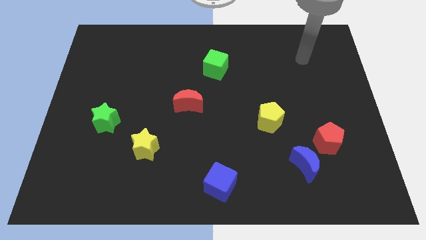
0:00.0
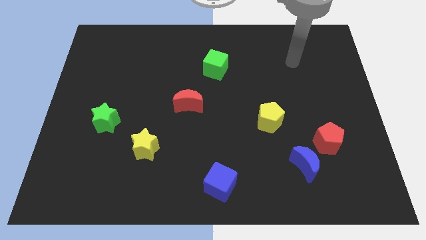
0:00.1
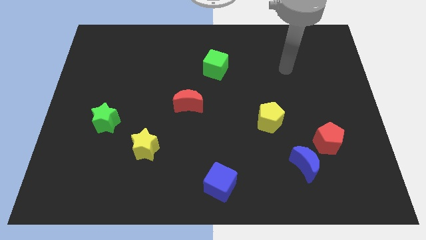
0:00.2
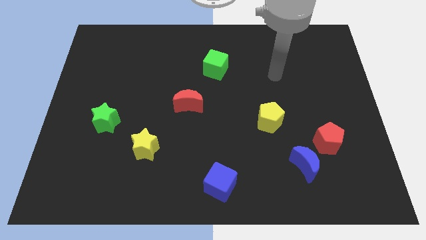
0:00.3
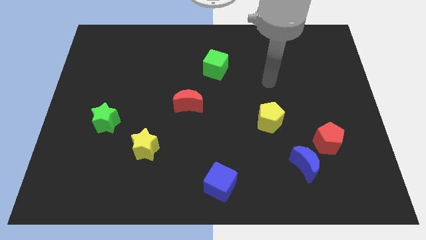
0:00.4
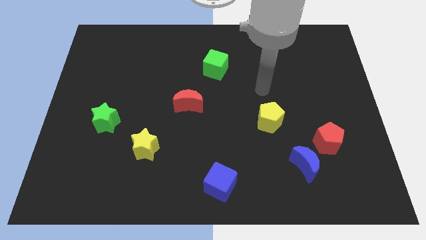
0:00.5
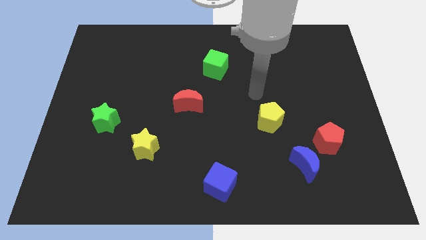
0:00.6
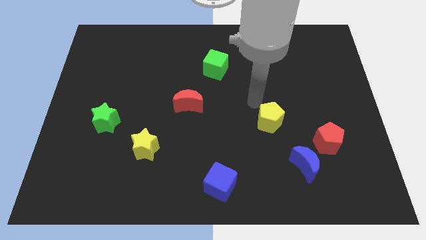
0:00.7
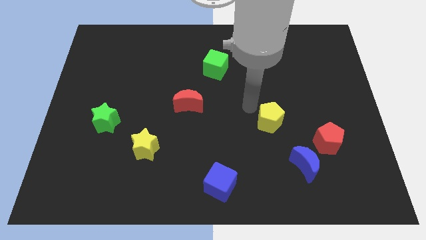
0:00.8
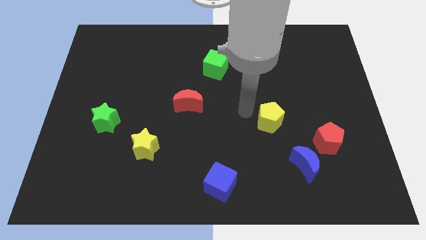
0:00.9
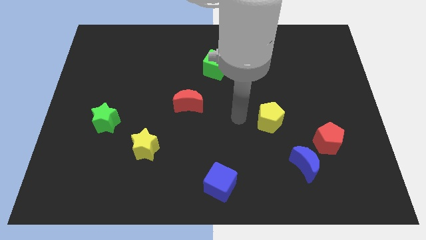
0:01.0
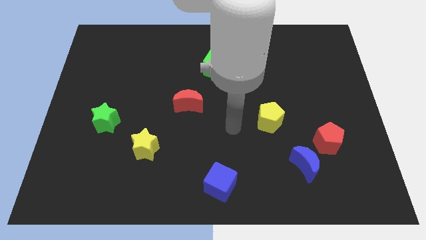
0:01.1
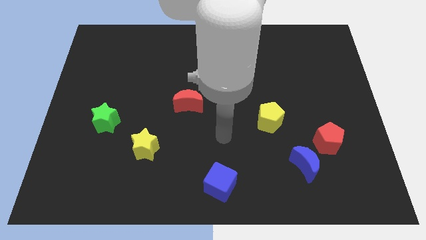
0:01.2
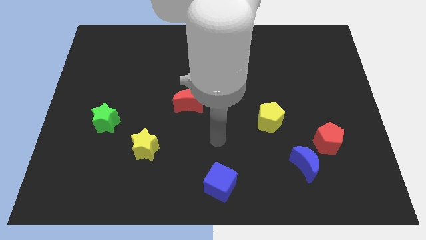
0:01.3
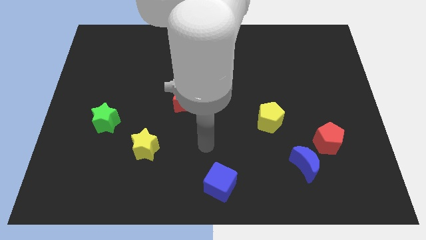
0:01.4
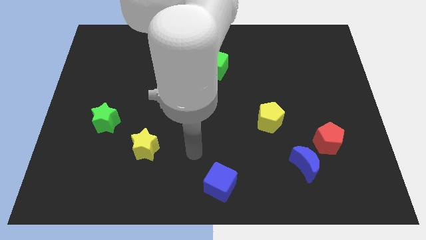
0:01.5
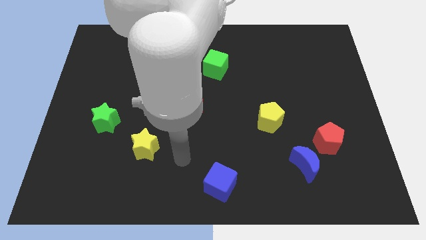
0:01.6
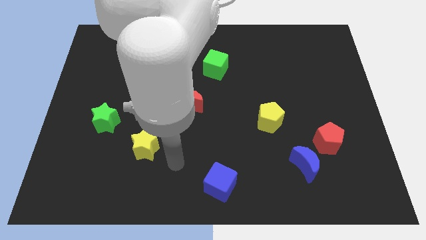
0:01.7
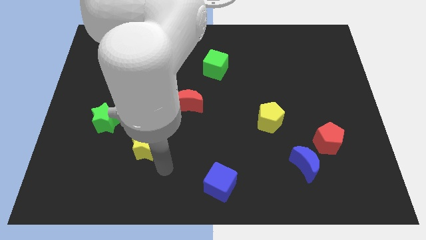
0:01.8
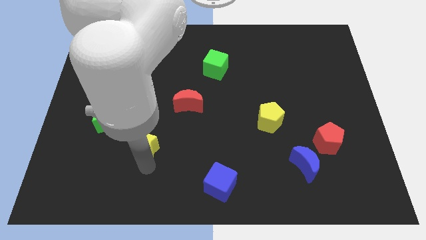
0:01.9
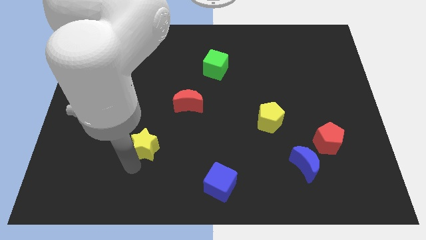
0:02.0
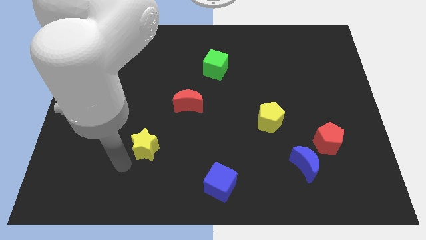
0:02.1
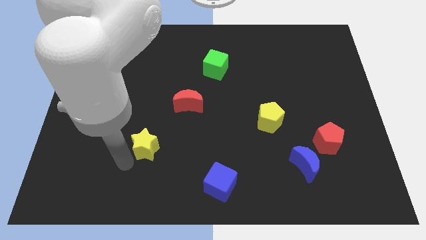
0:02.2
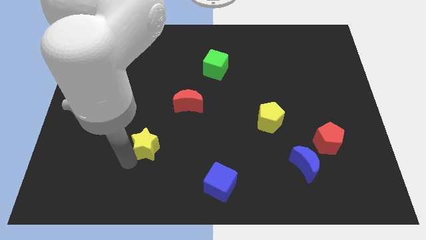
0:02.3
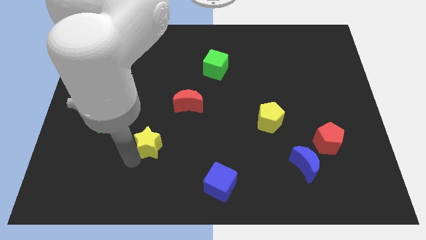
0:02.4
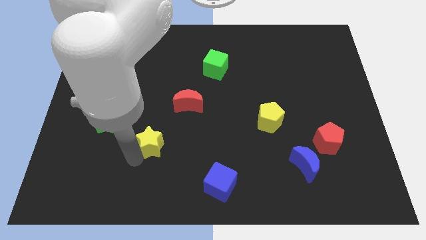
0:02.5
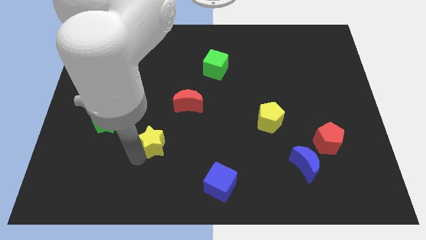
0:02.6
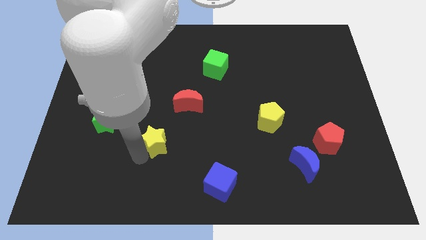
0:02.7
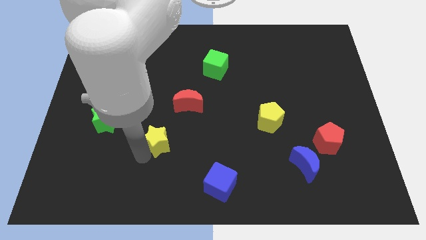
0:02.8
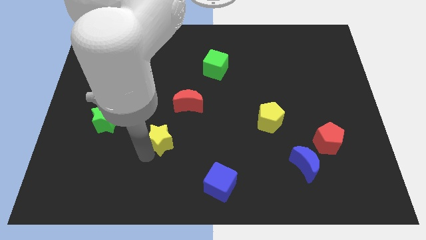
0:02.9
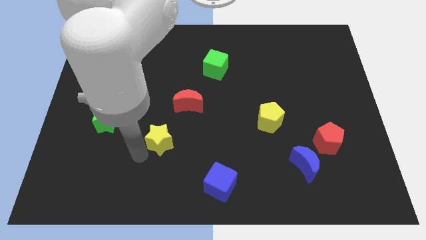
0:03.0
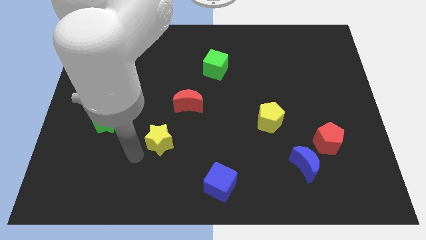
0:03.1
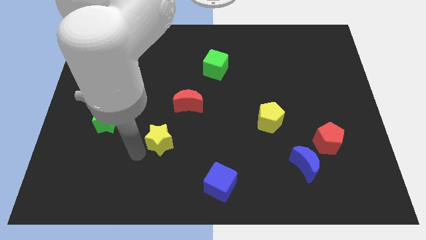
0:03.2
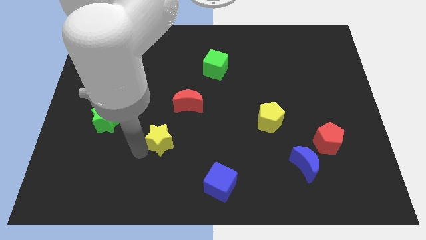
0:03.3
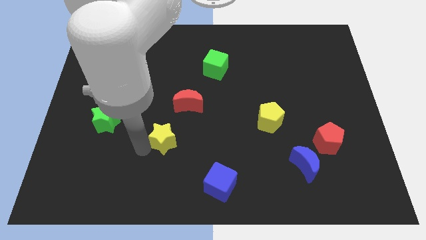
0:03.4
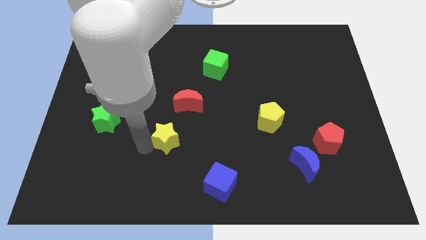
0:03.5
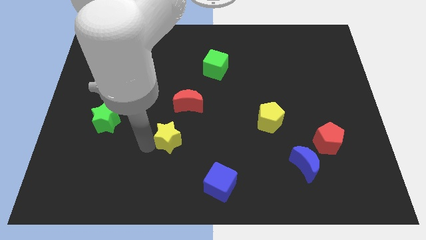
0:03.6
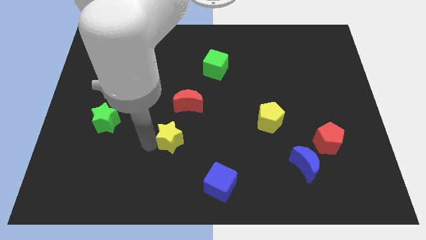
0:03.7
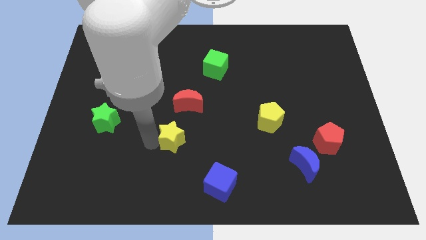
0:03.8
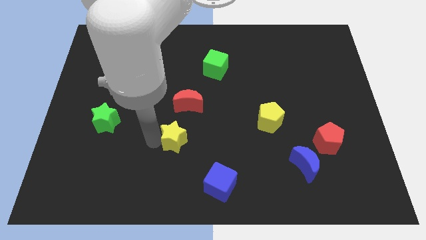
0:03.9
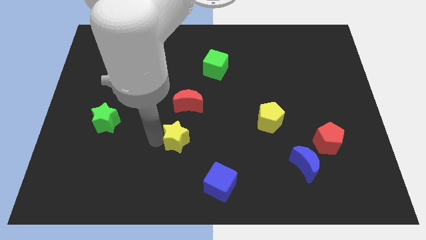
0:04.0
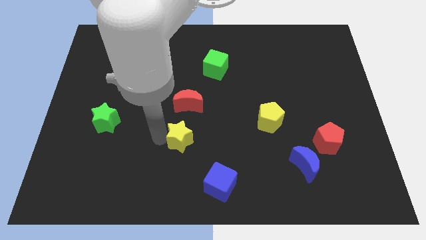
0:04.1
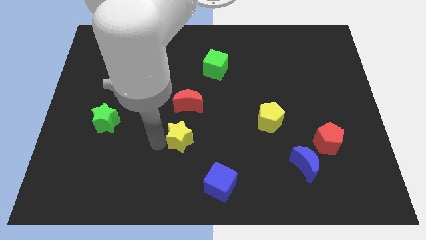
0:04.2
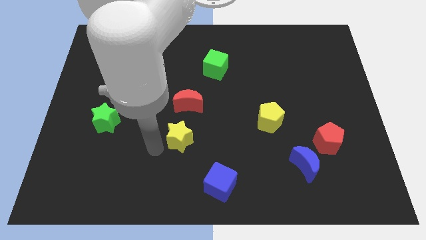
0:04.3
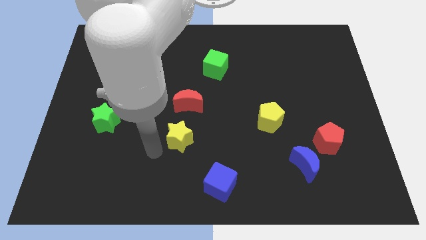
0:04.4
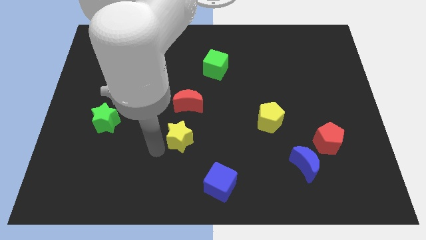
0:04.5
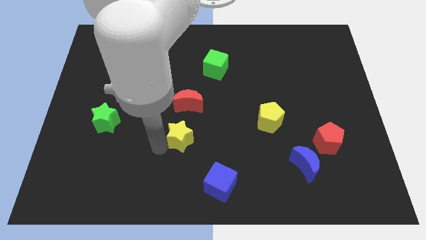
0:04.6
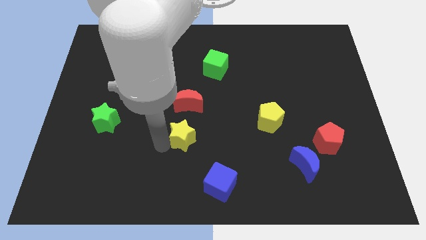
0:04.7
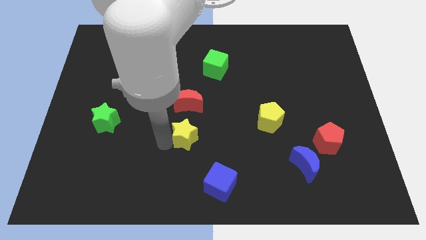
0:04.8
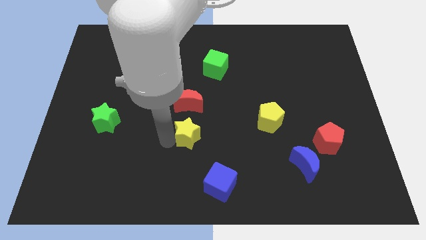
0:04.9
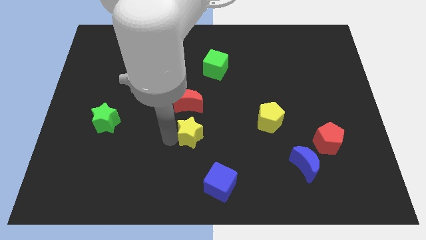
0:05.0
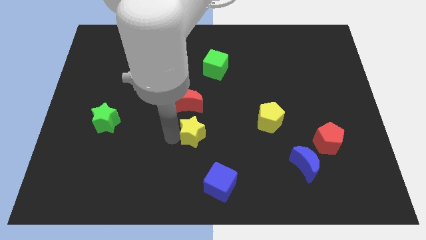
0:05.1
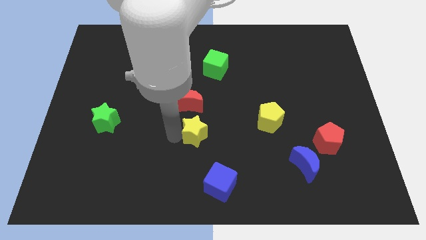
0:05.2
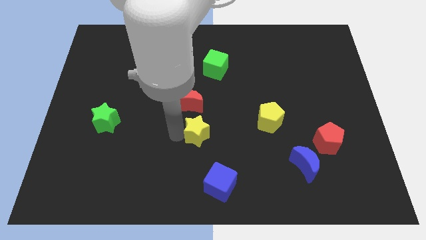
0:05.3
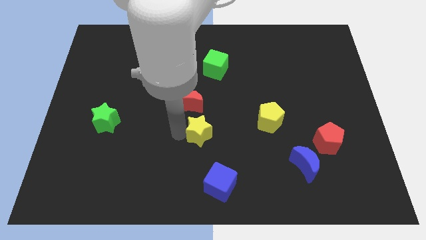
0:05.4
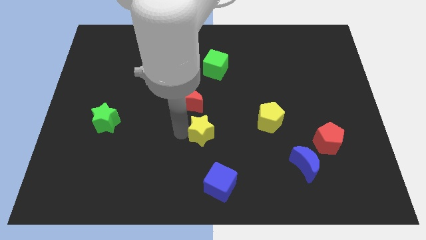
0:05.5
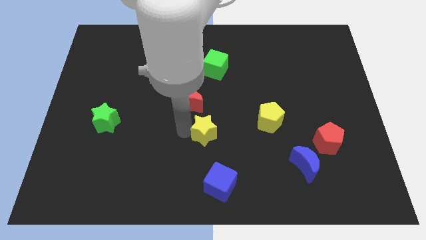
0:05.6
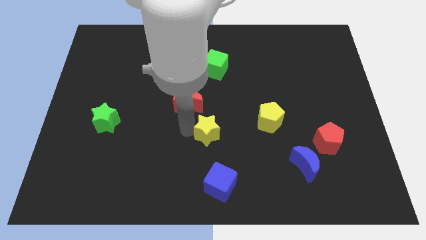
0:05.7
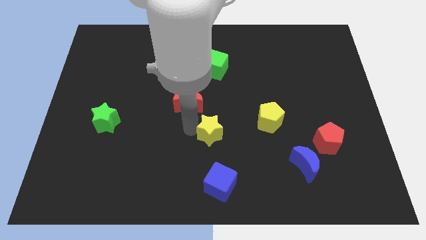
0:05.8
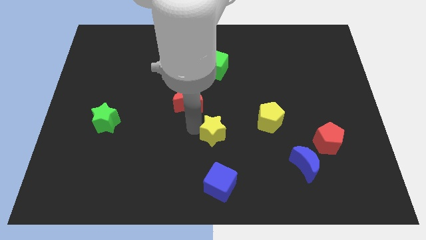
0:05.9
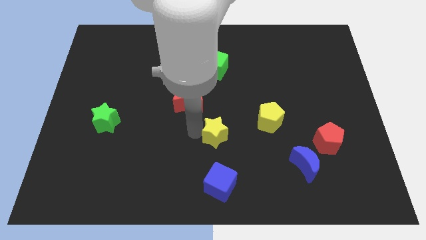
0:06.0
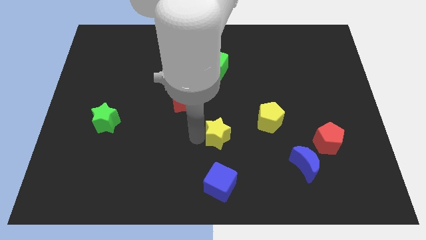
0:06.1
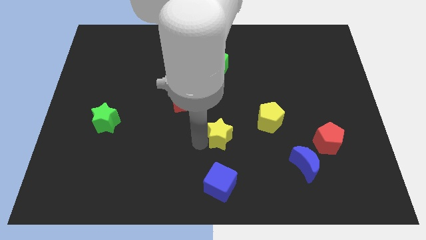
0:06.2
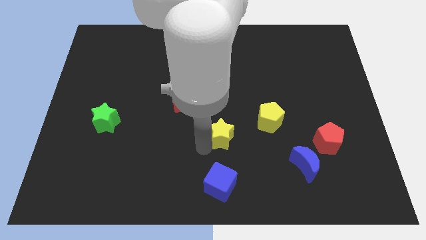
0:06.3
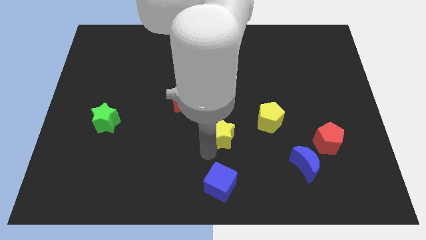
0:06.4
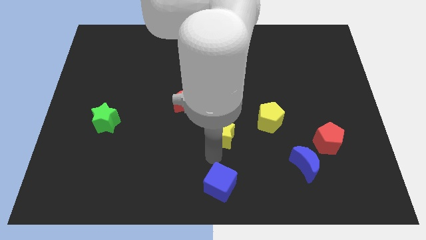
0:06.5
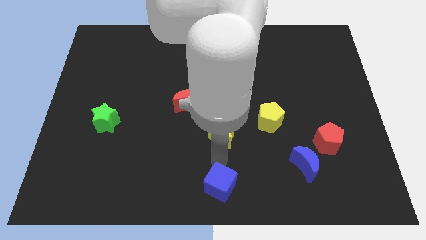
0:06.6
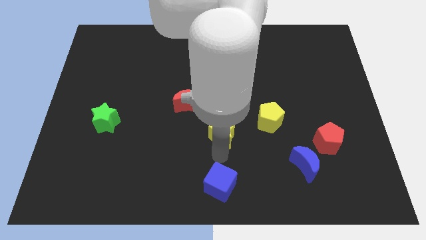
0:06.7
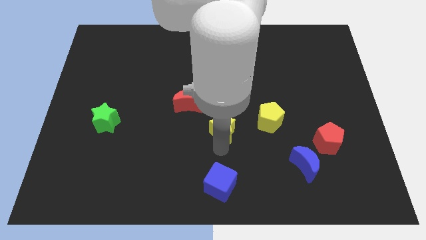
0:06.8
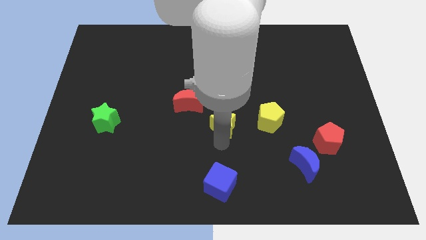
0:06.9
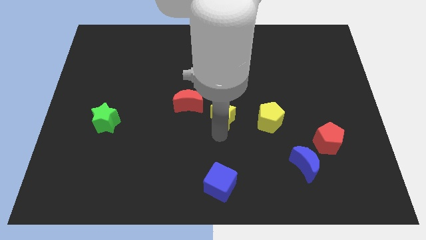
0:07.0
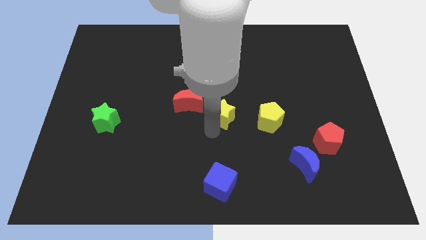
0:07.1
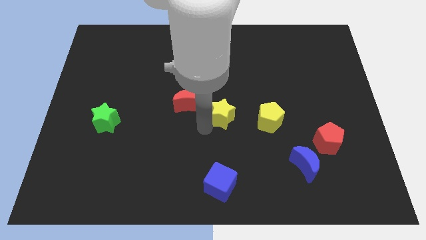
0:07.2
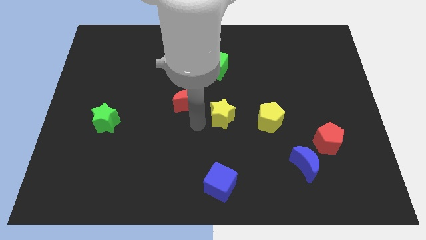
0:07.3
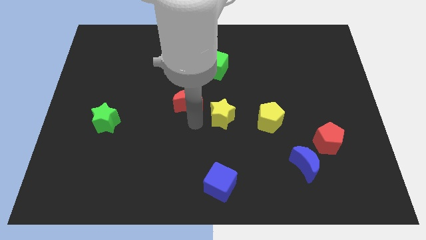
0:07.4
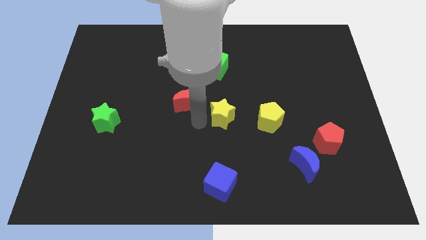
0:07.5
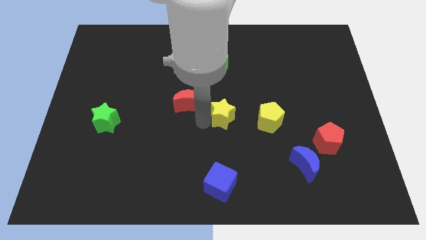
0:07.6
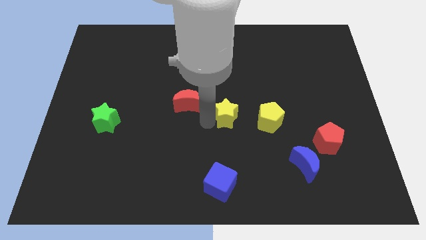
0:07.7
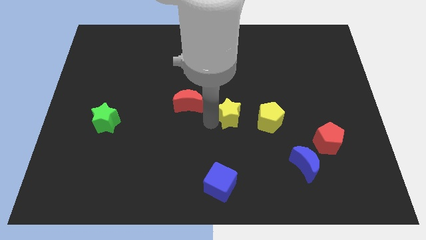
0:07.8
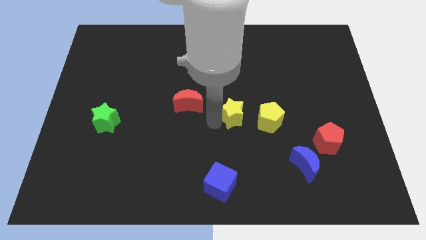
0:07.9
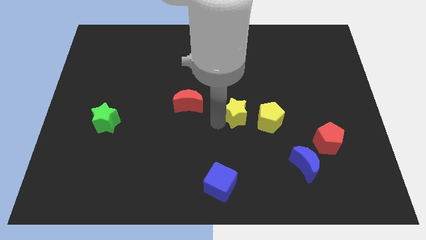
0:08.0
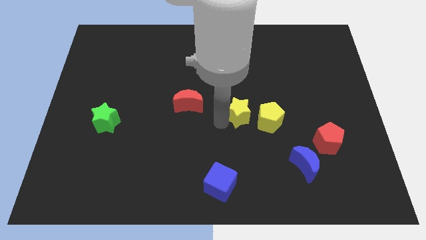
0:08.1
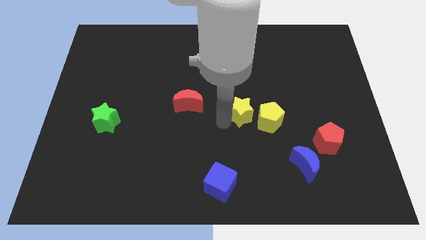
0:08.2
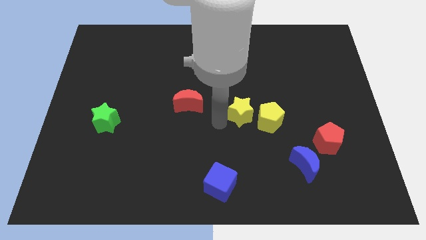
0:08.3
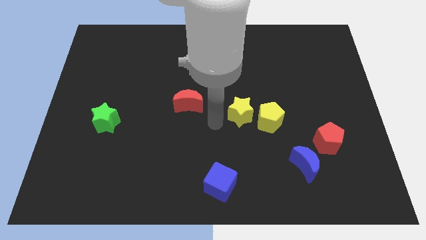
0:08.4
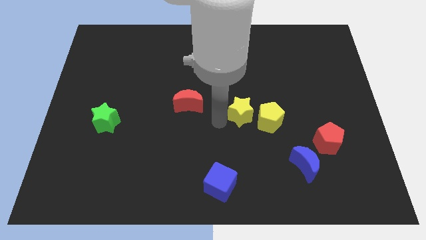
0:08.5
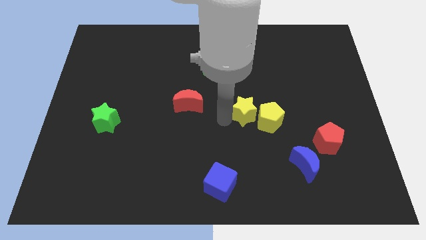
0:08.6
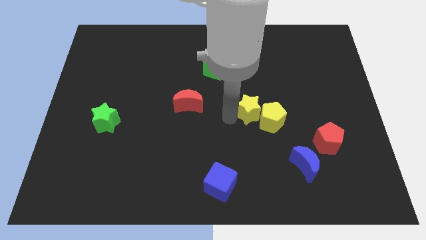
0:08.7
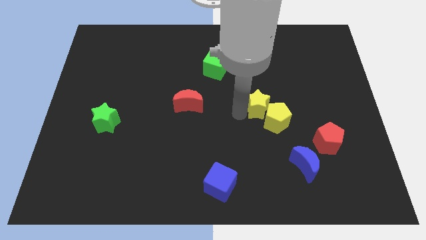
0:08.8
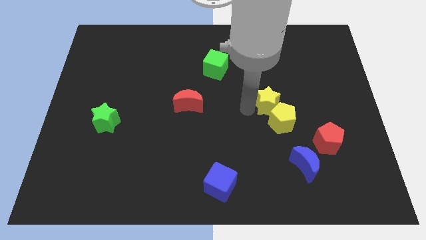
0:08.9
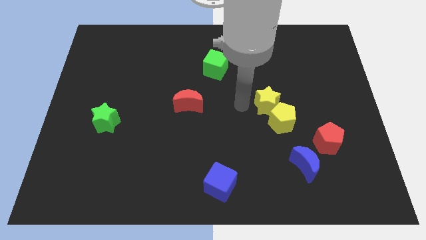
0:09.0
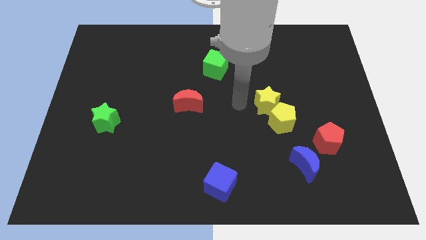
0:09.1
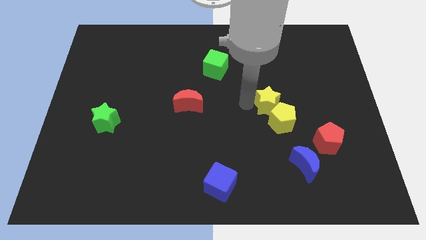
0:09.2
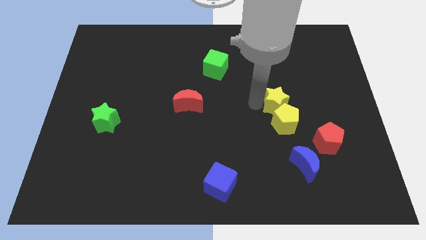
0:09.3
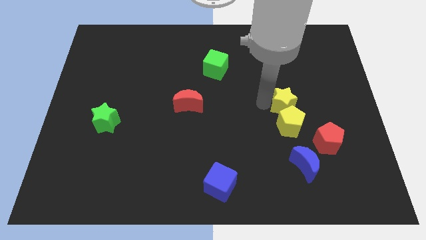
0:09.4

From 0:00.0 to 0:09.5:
slide the yellow star to the top right of the yellow pentagon
